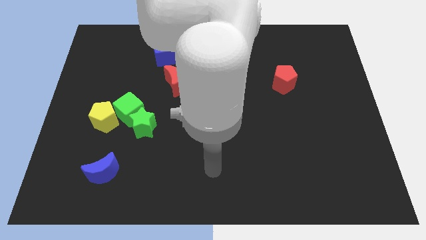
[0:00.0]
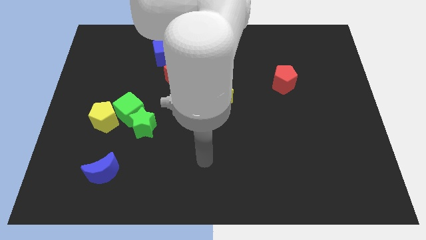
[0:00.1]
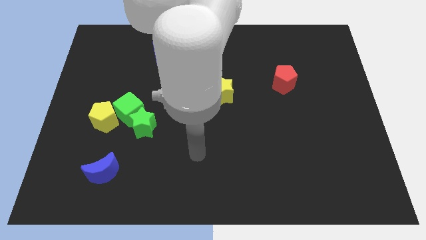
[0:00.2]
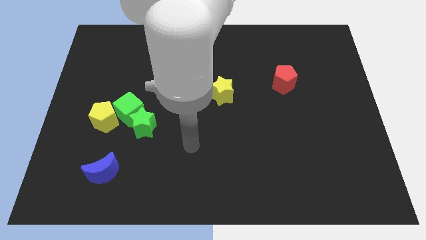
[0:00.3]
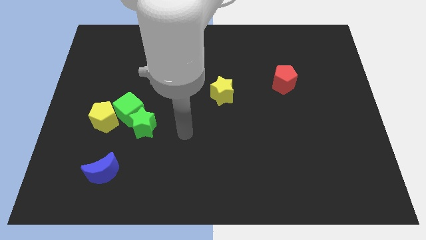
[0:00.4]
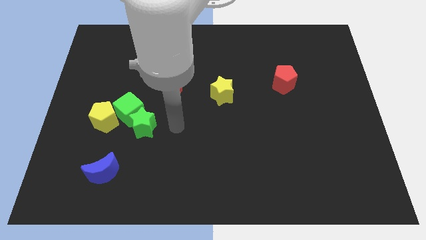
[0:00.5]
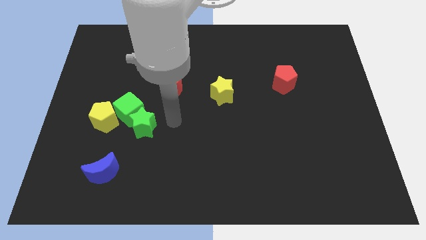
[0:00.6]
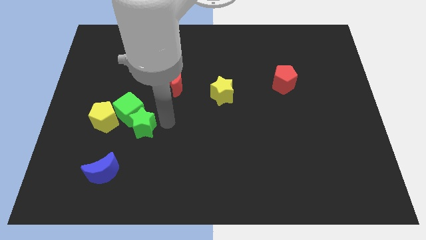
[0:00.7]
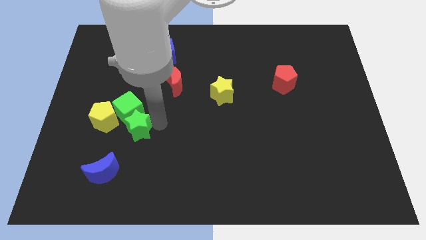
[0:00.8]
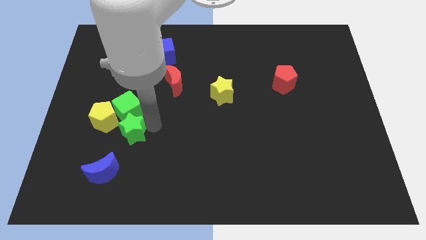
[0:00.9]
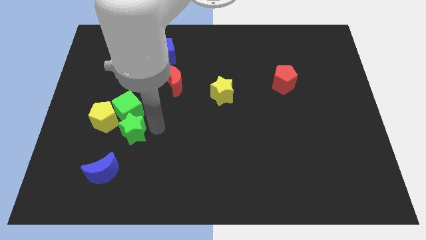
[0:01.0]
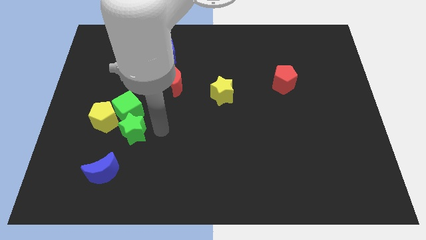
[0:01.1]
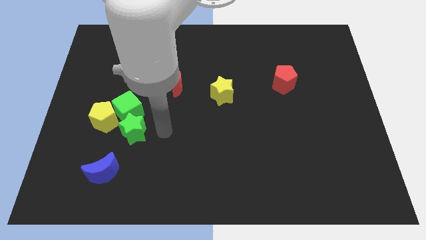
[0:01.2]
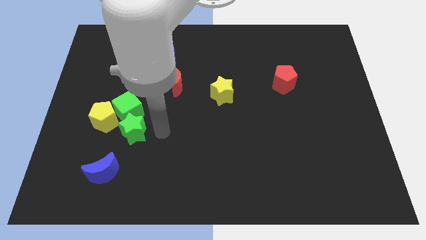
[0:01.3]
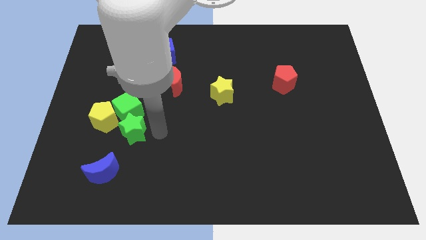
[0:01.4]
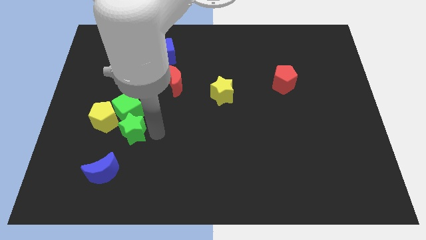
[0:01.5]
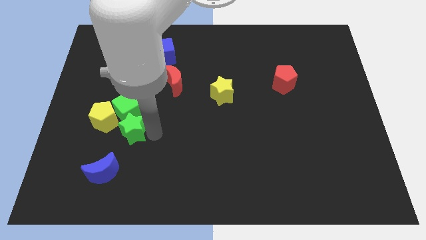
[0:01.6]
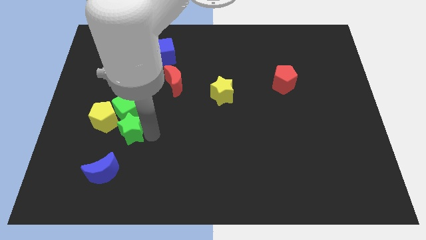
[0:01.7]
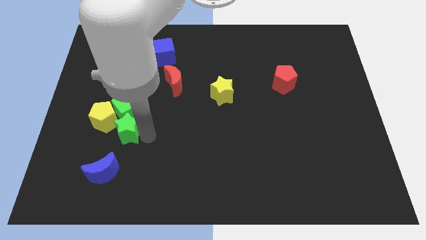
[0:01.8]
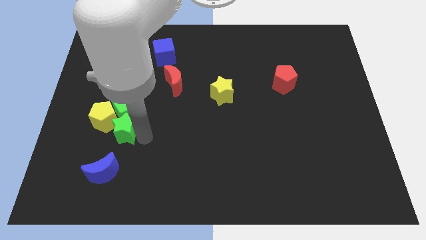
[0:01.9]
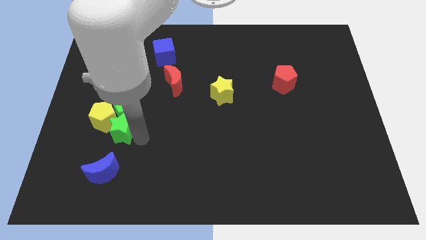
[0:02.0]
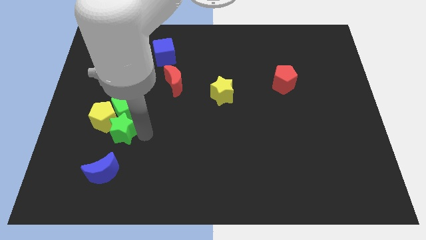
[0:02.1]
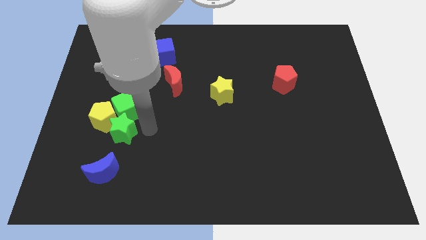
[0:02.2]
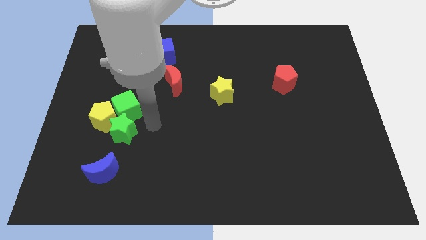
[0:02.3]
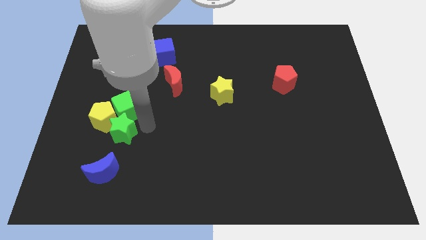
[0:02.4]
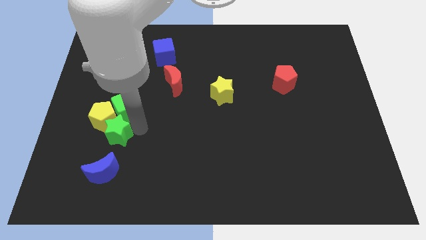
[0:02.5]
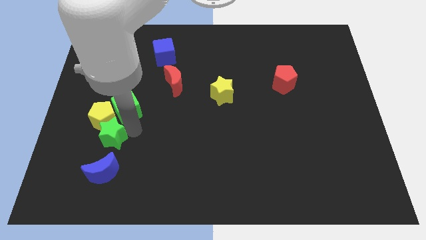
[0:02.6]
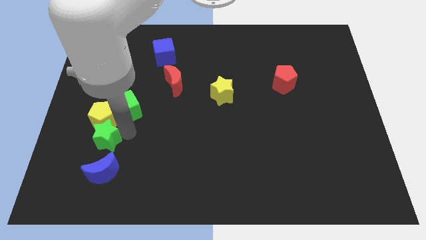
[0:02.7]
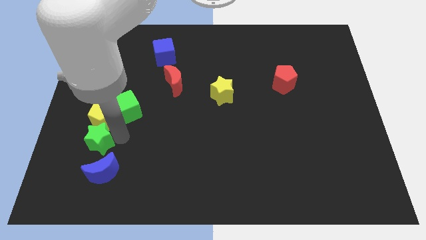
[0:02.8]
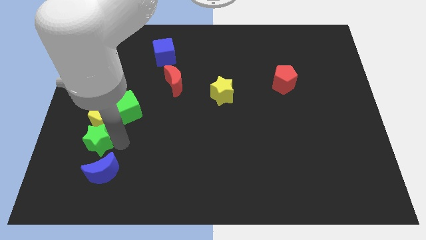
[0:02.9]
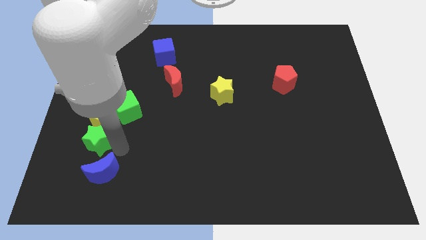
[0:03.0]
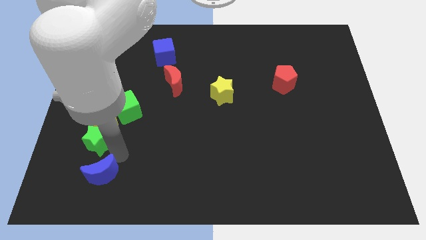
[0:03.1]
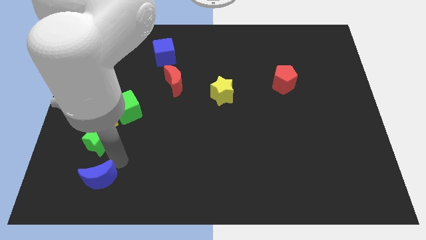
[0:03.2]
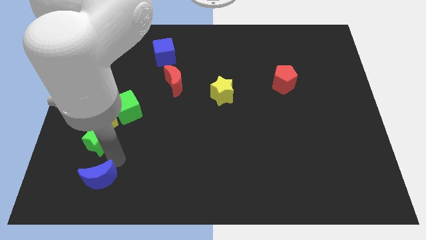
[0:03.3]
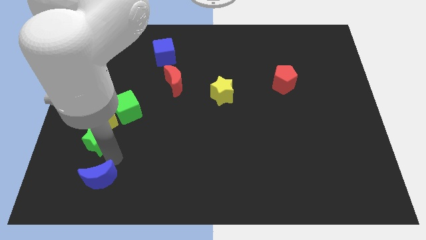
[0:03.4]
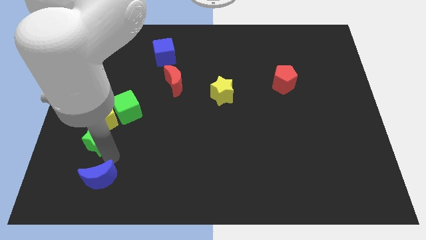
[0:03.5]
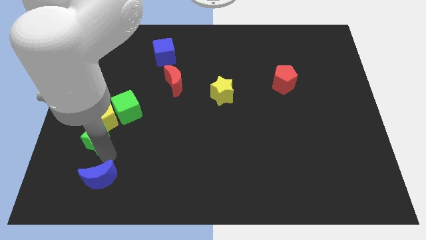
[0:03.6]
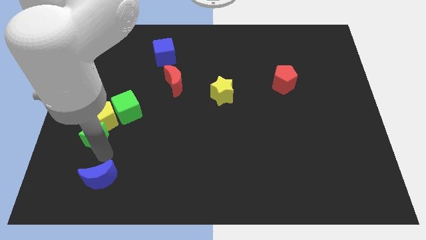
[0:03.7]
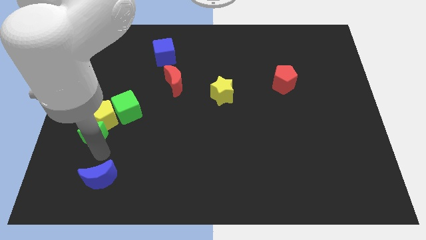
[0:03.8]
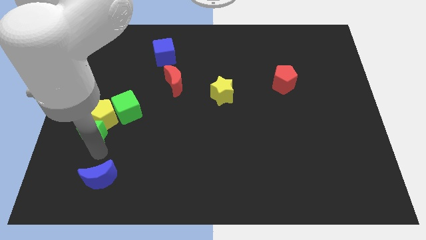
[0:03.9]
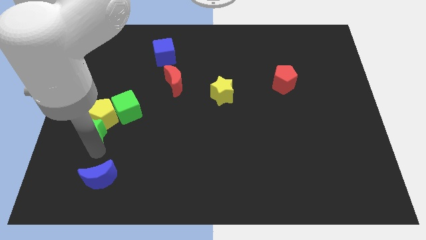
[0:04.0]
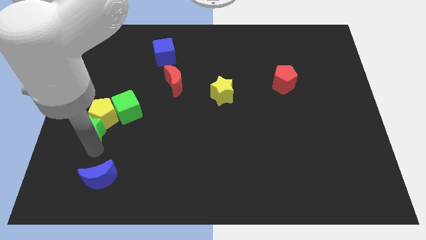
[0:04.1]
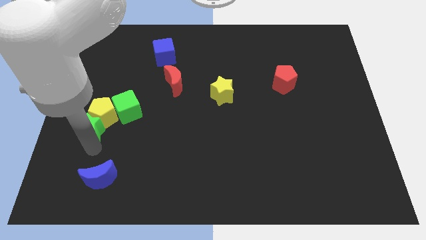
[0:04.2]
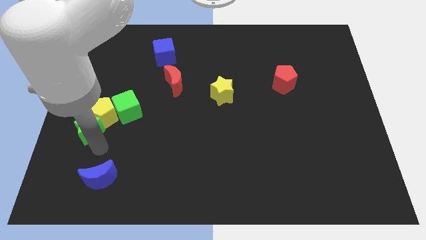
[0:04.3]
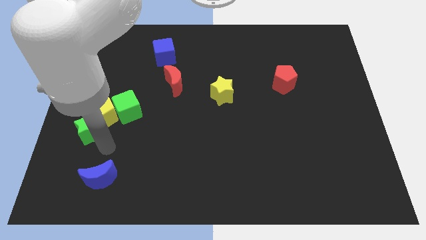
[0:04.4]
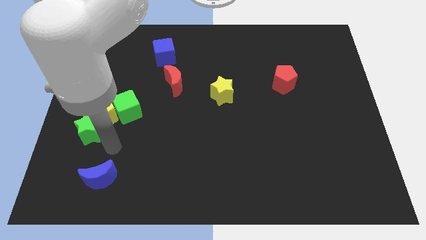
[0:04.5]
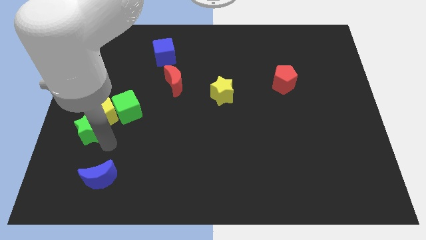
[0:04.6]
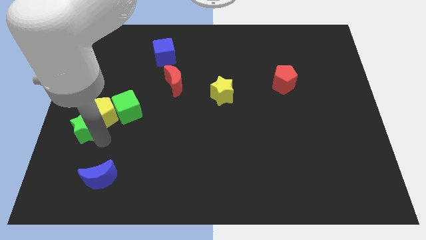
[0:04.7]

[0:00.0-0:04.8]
push the green star to the left side of the board

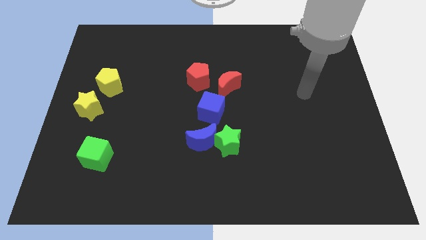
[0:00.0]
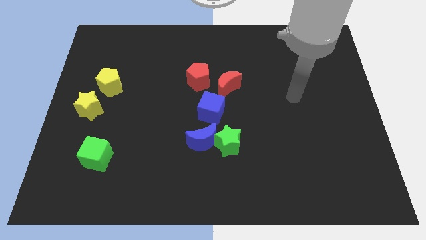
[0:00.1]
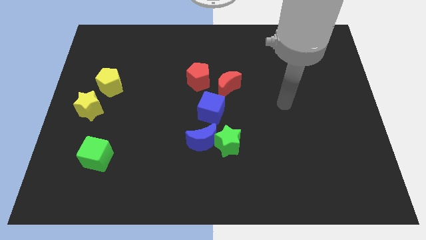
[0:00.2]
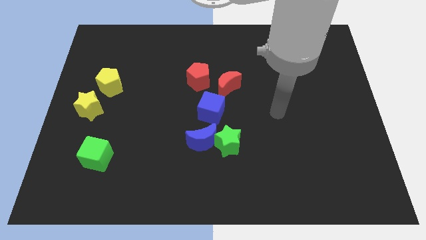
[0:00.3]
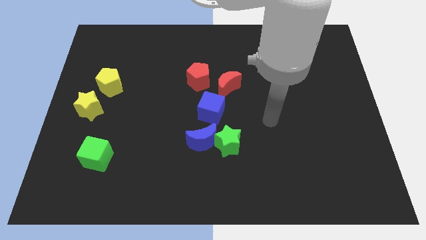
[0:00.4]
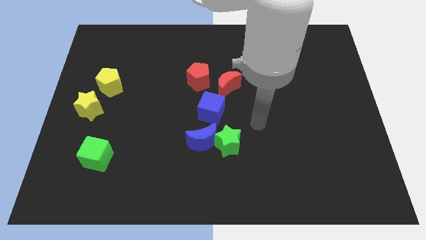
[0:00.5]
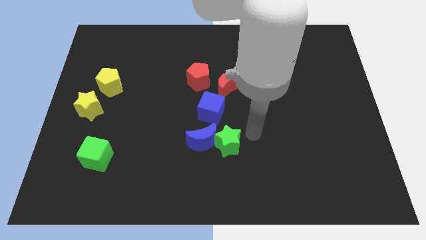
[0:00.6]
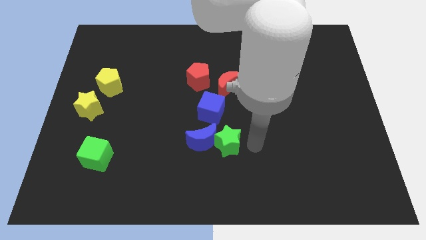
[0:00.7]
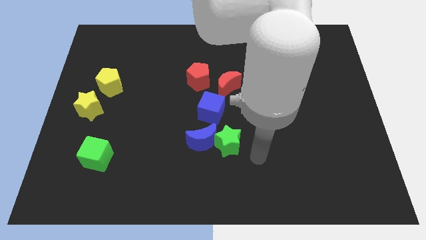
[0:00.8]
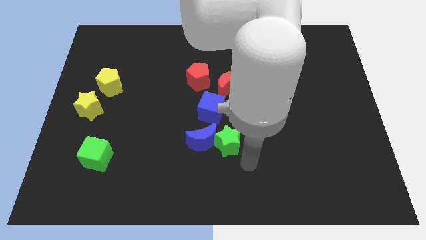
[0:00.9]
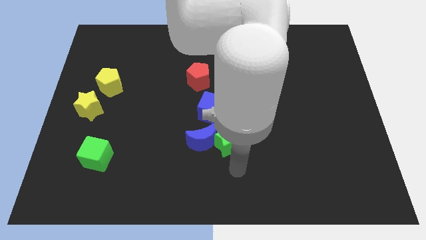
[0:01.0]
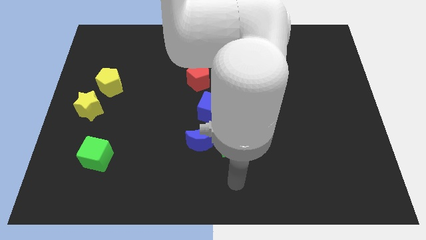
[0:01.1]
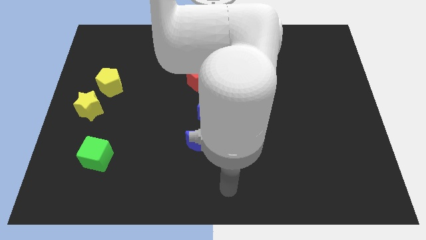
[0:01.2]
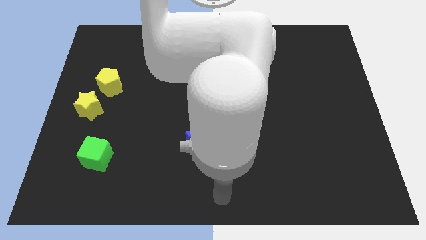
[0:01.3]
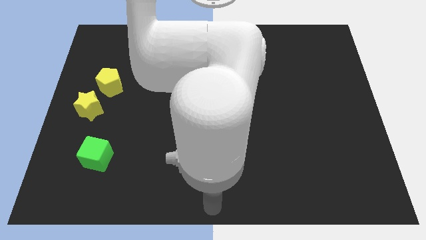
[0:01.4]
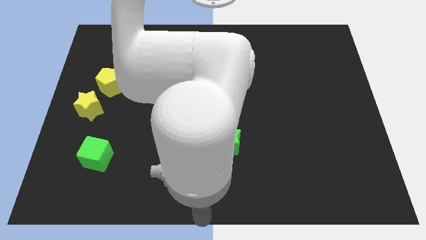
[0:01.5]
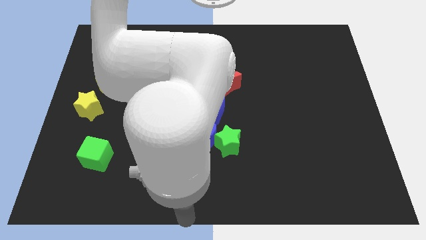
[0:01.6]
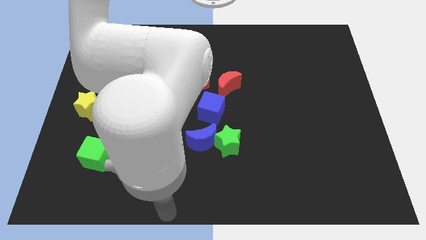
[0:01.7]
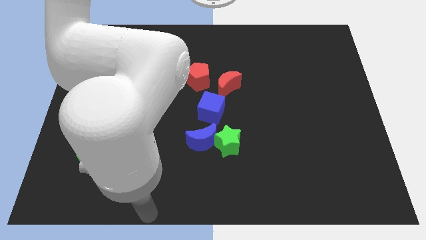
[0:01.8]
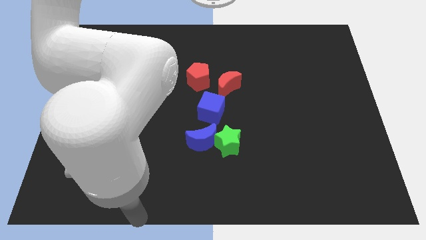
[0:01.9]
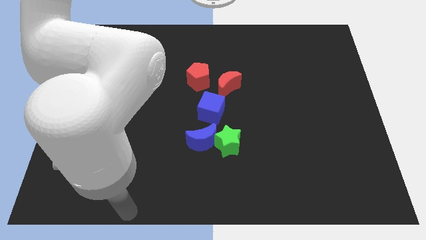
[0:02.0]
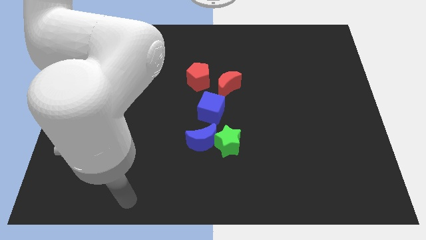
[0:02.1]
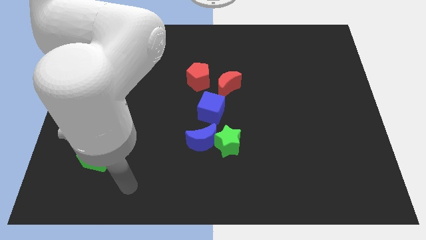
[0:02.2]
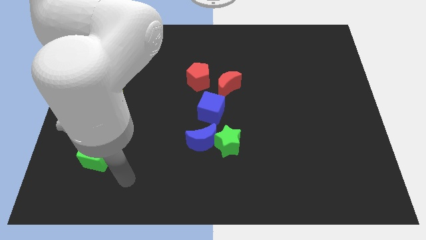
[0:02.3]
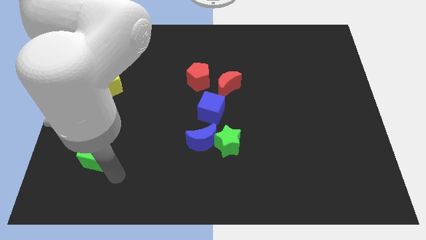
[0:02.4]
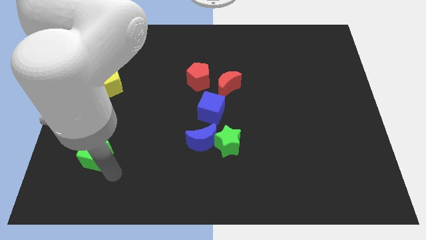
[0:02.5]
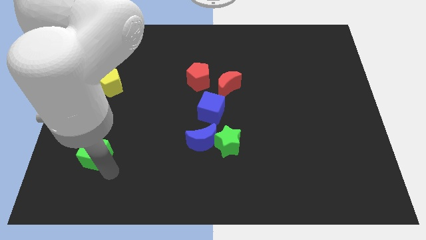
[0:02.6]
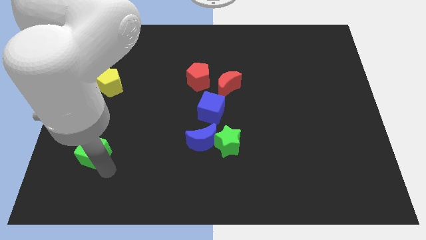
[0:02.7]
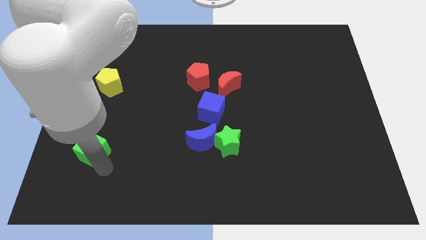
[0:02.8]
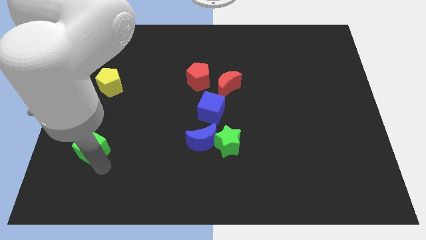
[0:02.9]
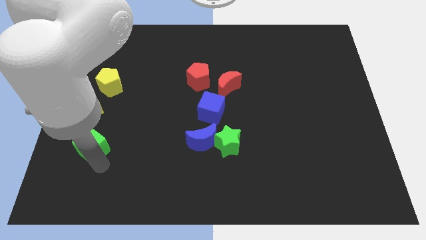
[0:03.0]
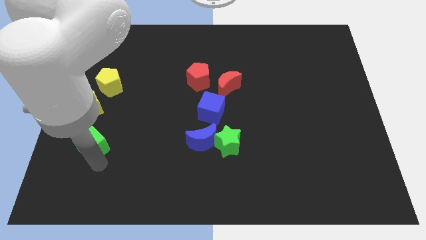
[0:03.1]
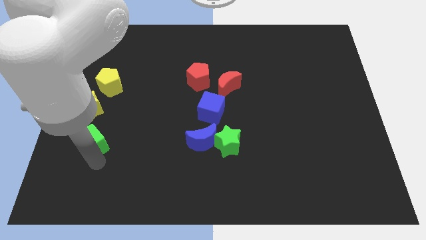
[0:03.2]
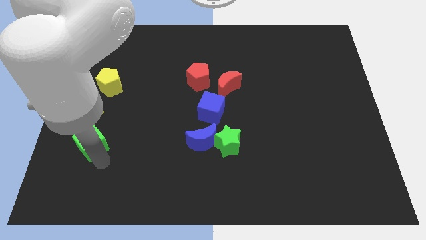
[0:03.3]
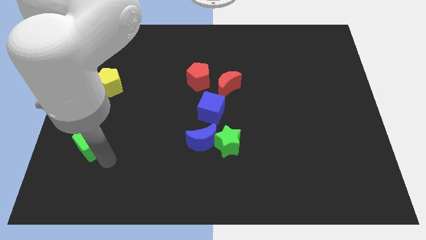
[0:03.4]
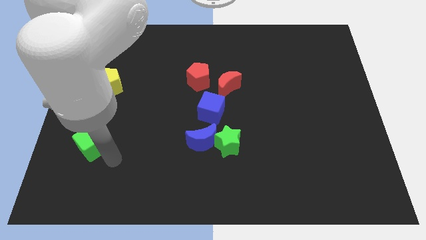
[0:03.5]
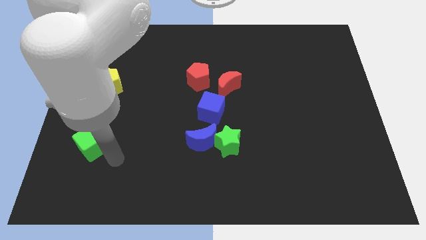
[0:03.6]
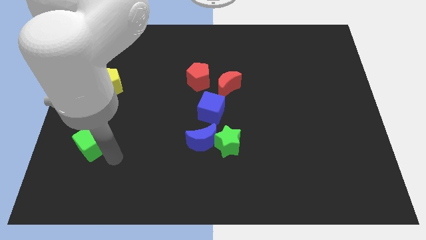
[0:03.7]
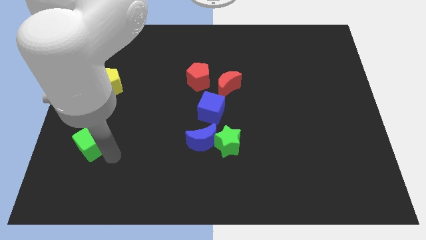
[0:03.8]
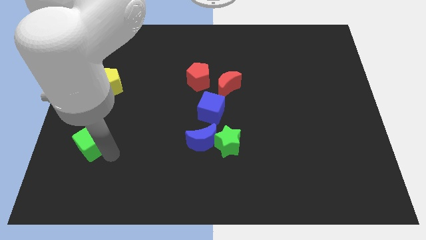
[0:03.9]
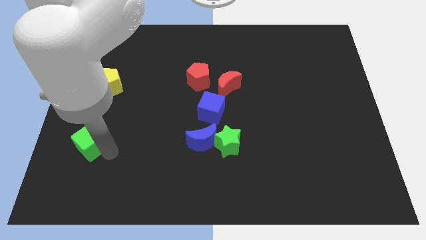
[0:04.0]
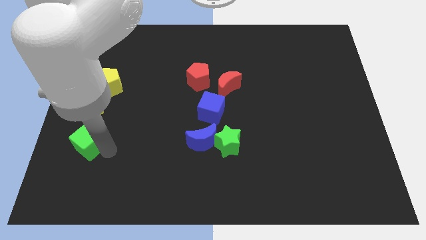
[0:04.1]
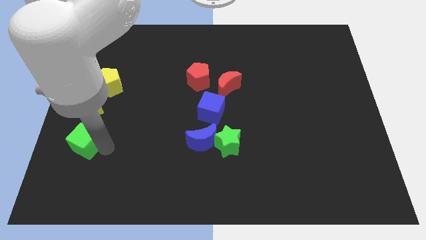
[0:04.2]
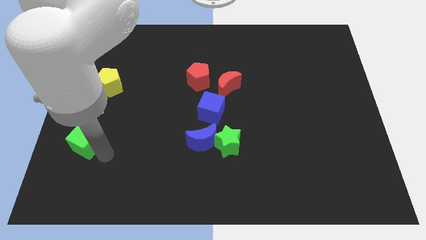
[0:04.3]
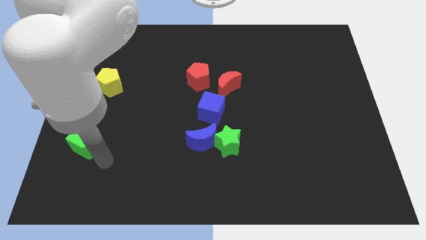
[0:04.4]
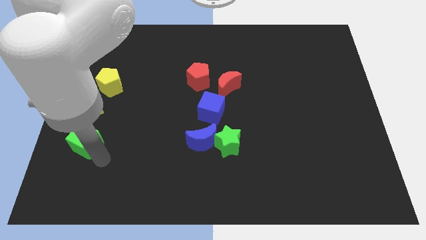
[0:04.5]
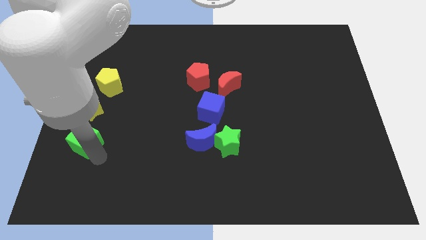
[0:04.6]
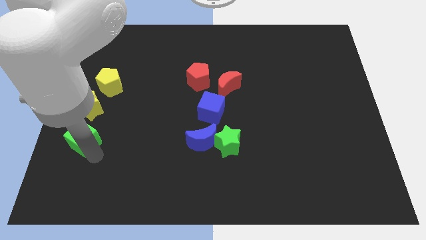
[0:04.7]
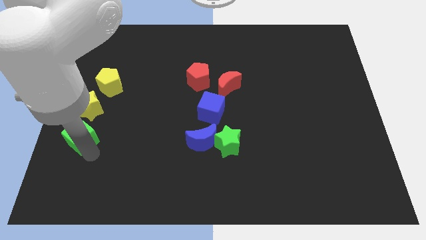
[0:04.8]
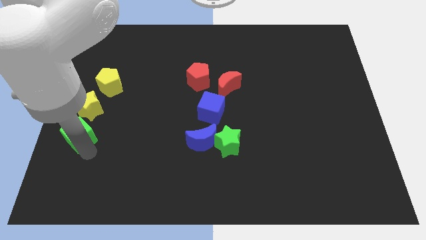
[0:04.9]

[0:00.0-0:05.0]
put the green cube to the left side
